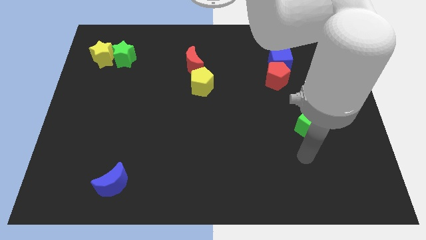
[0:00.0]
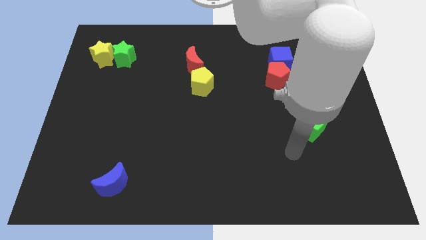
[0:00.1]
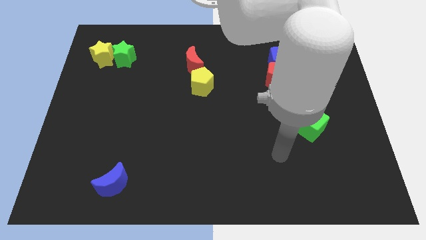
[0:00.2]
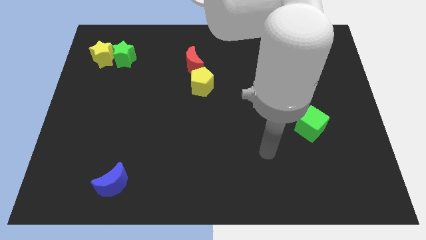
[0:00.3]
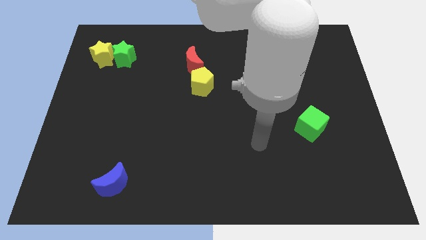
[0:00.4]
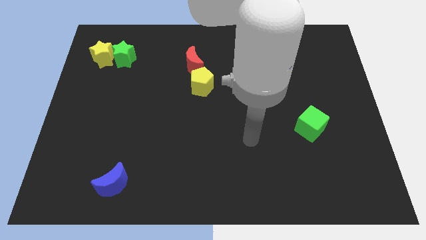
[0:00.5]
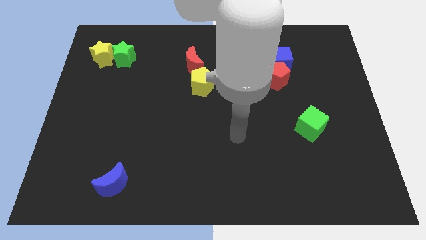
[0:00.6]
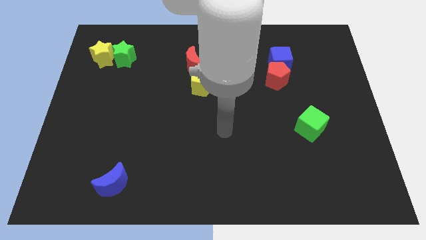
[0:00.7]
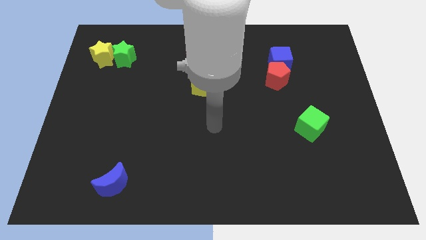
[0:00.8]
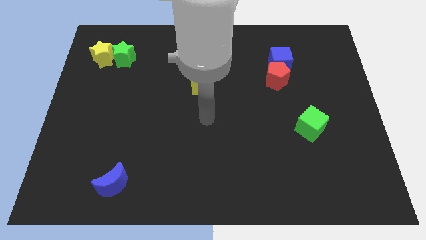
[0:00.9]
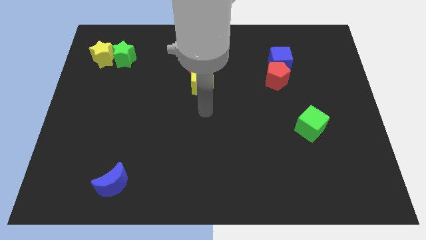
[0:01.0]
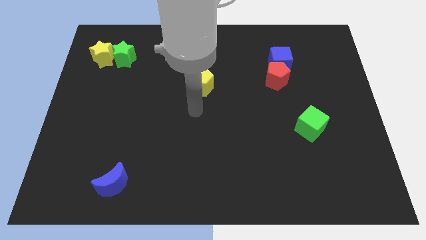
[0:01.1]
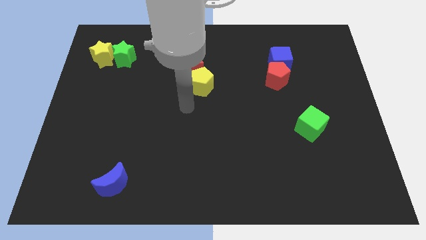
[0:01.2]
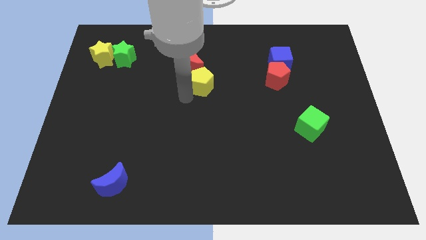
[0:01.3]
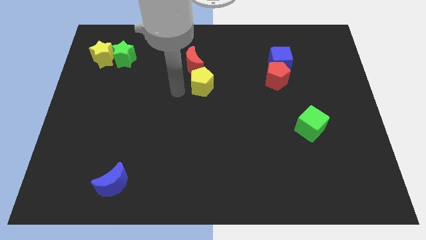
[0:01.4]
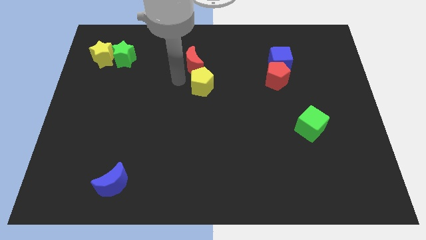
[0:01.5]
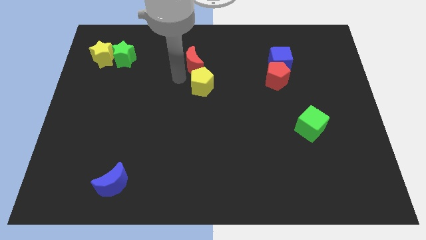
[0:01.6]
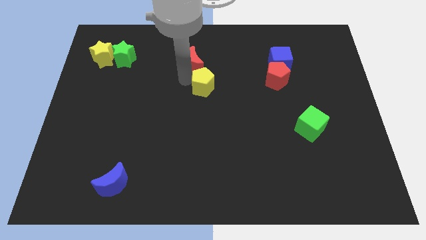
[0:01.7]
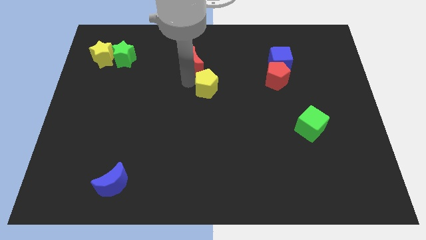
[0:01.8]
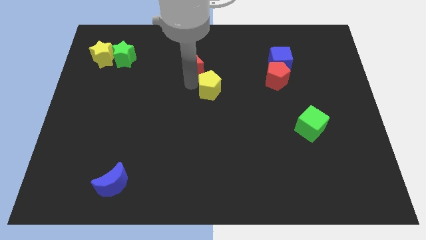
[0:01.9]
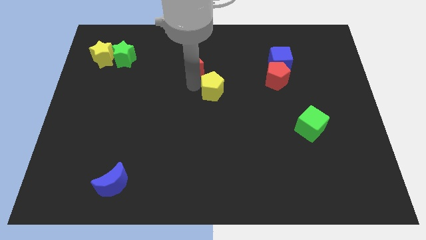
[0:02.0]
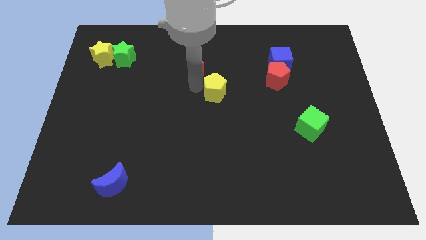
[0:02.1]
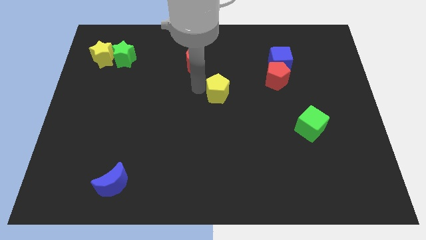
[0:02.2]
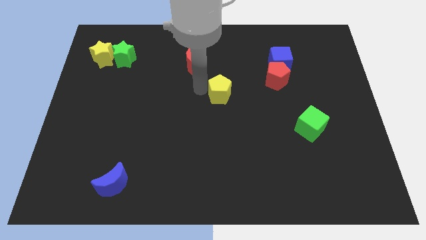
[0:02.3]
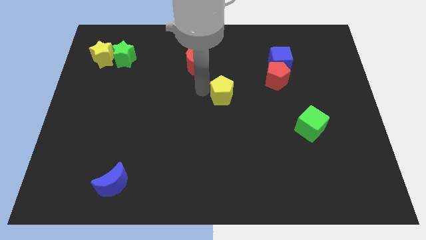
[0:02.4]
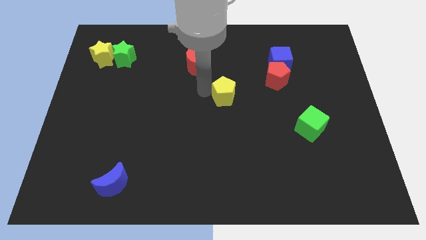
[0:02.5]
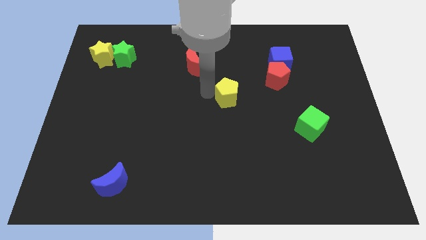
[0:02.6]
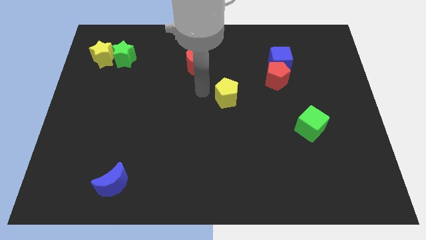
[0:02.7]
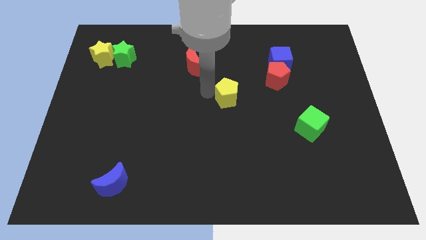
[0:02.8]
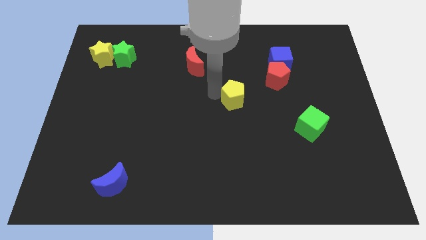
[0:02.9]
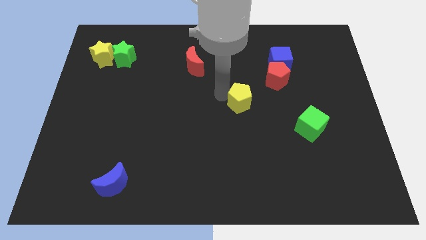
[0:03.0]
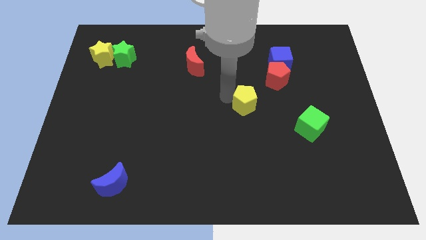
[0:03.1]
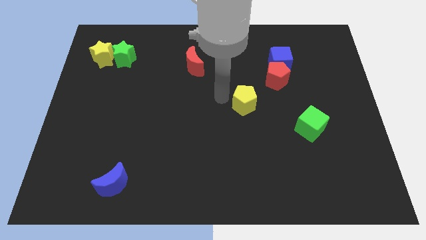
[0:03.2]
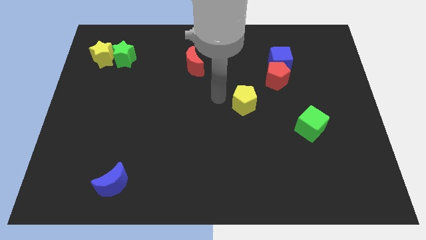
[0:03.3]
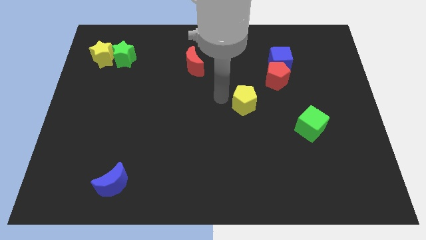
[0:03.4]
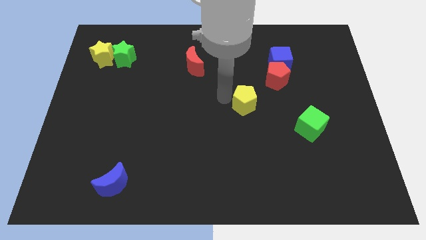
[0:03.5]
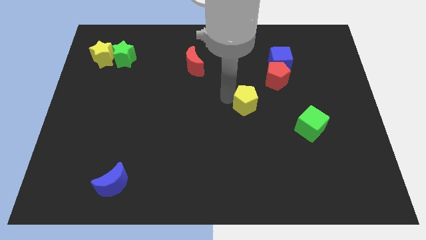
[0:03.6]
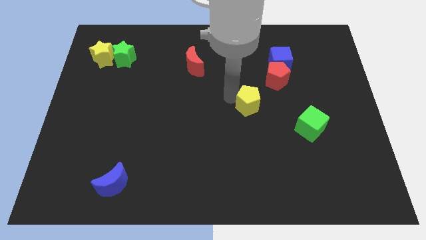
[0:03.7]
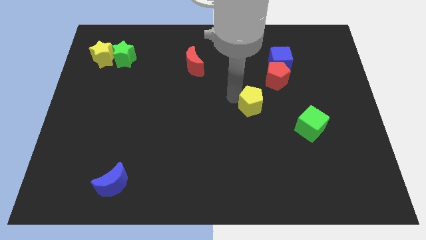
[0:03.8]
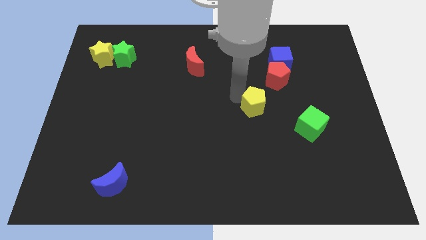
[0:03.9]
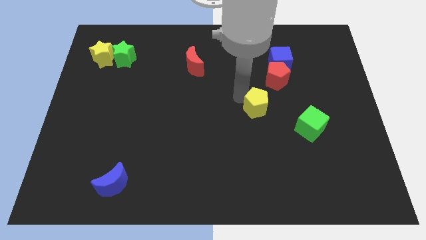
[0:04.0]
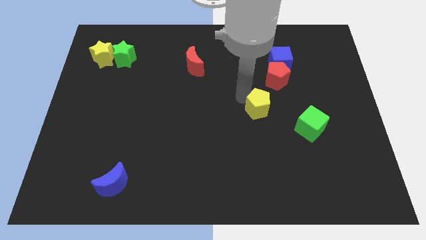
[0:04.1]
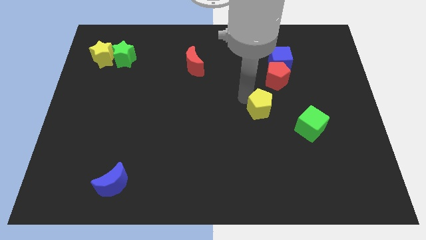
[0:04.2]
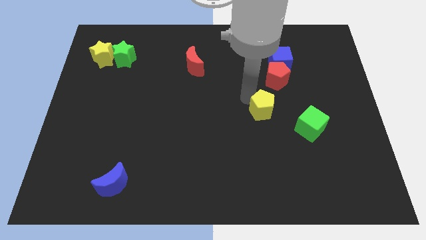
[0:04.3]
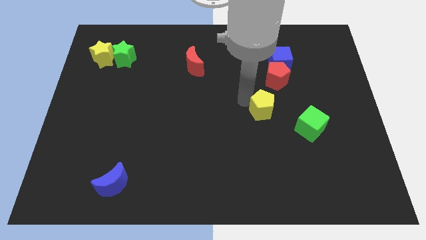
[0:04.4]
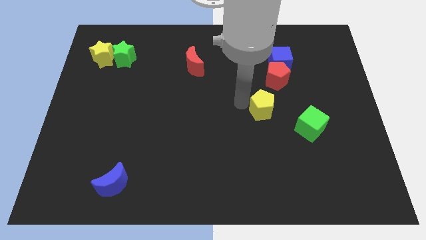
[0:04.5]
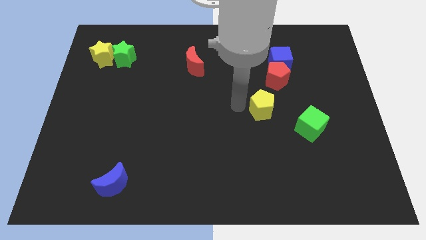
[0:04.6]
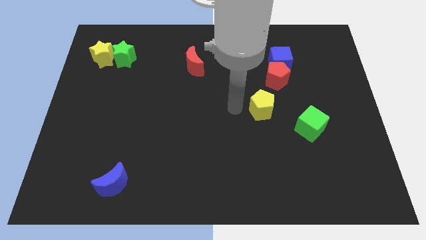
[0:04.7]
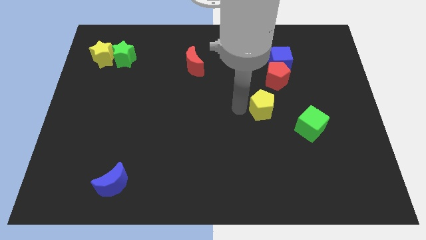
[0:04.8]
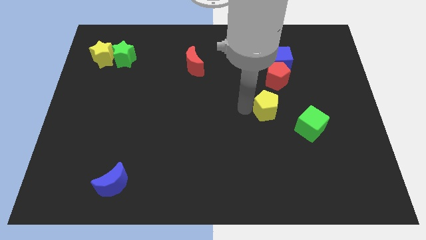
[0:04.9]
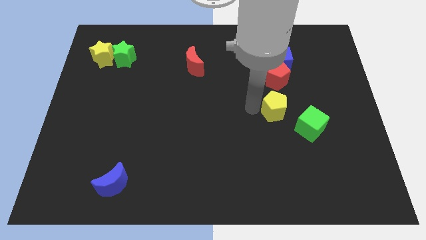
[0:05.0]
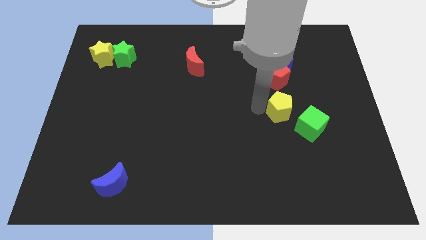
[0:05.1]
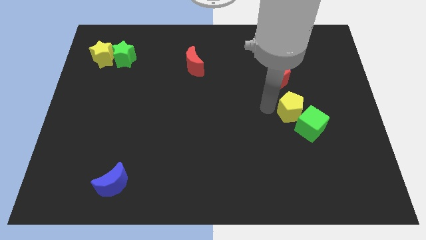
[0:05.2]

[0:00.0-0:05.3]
slide the yellow pentagon to the green cube

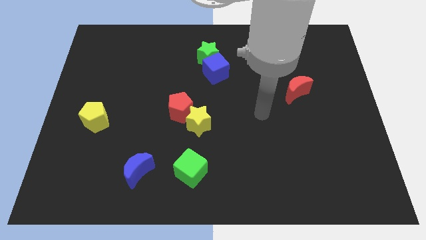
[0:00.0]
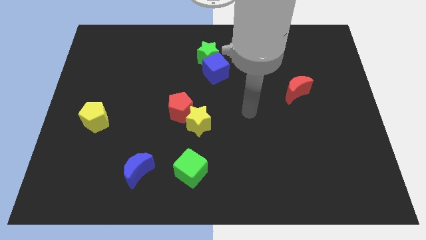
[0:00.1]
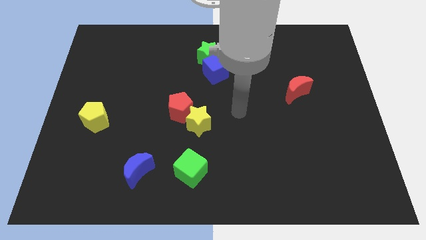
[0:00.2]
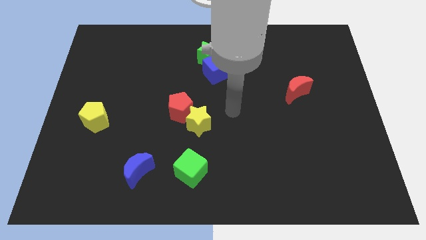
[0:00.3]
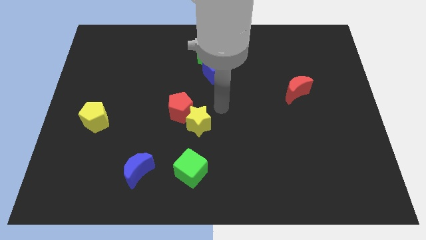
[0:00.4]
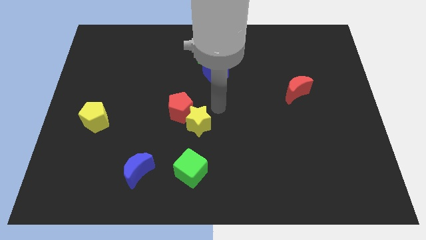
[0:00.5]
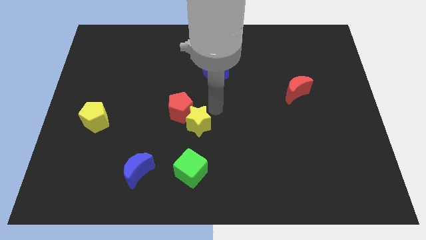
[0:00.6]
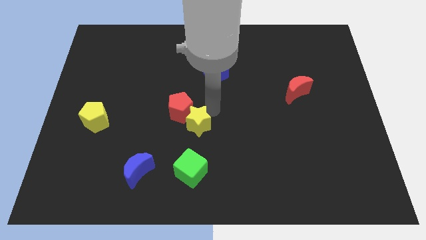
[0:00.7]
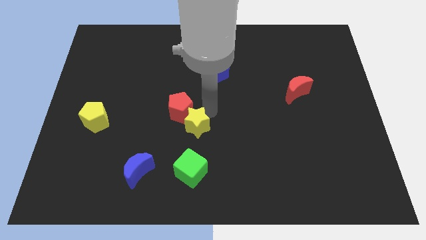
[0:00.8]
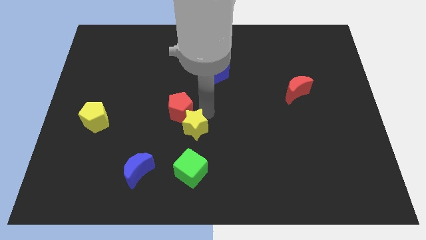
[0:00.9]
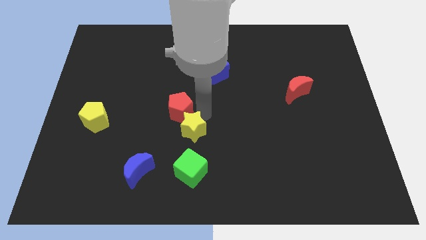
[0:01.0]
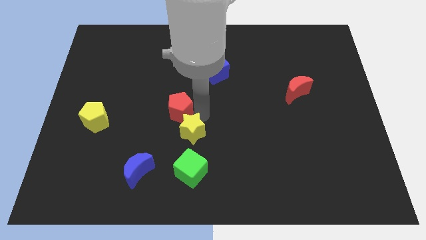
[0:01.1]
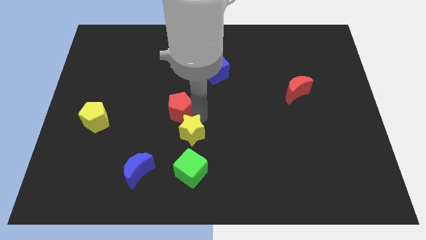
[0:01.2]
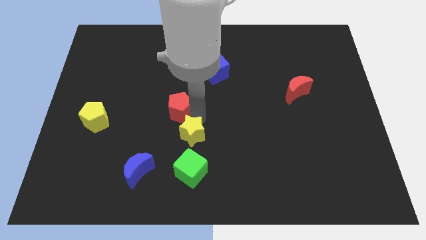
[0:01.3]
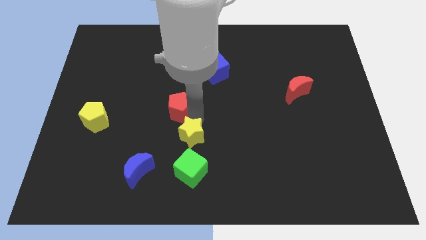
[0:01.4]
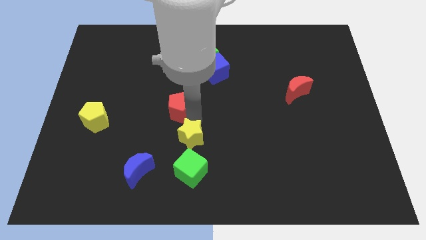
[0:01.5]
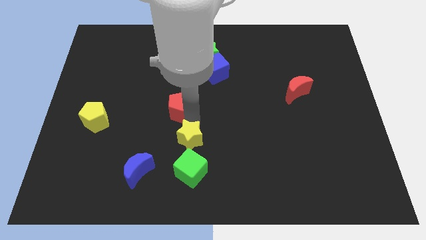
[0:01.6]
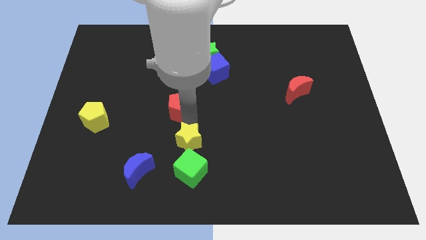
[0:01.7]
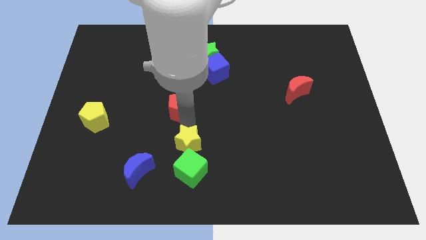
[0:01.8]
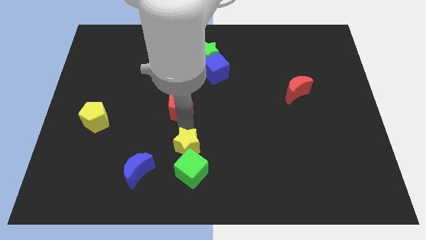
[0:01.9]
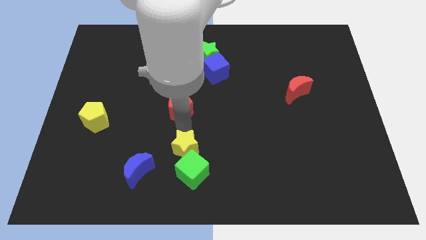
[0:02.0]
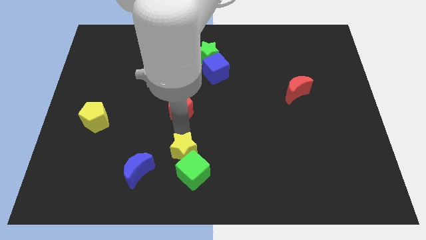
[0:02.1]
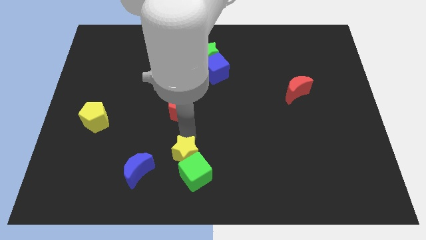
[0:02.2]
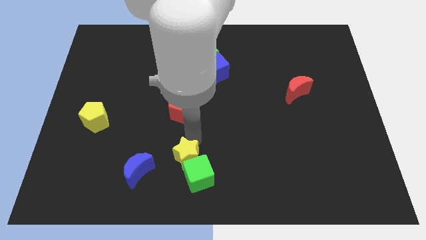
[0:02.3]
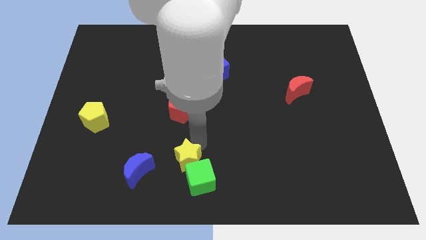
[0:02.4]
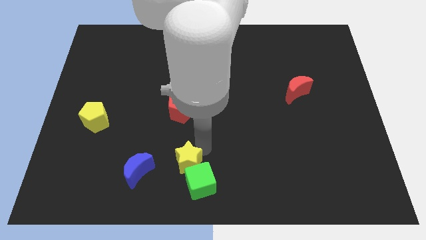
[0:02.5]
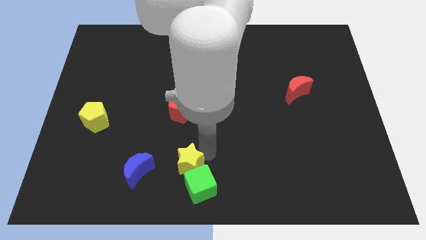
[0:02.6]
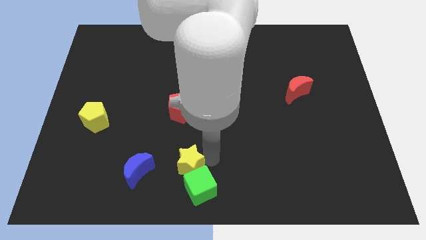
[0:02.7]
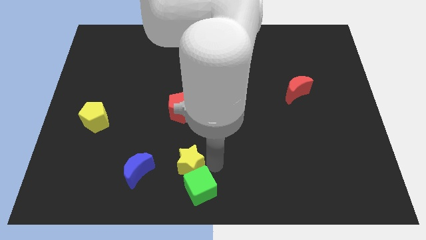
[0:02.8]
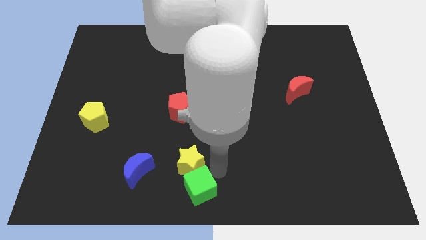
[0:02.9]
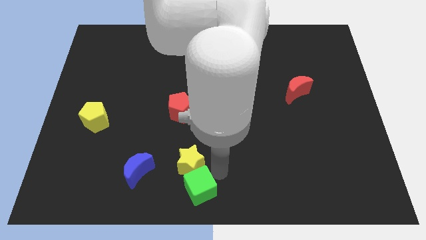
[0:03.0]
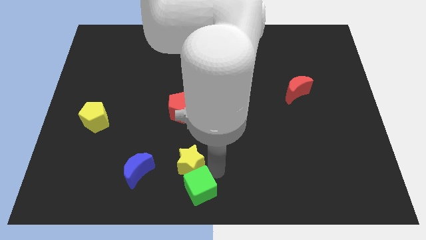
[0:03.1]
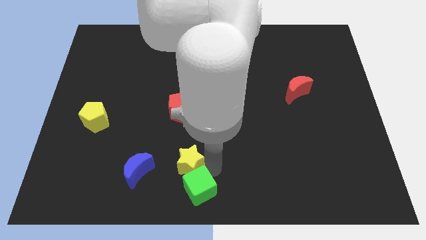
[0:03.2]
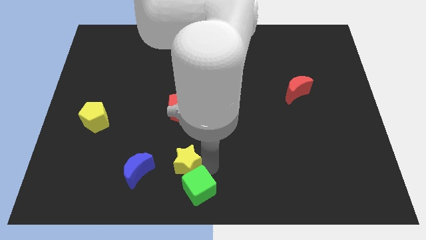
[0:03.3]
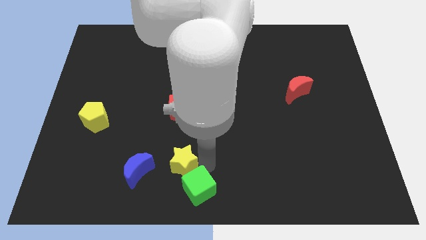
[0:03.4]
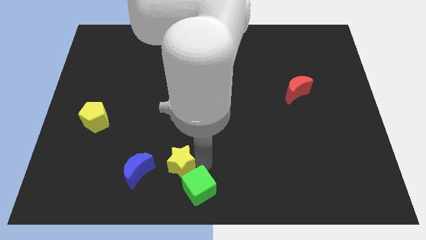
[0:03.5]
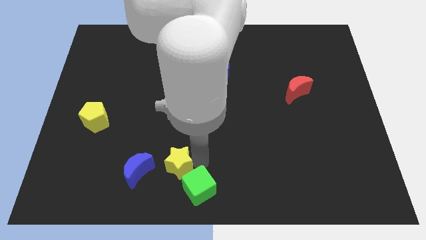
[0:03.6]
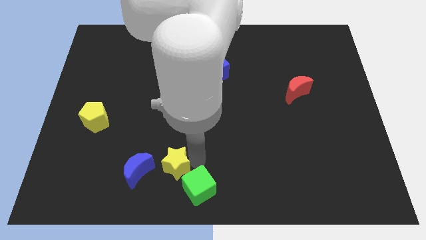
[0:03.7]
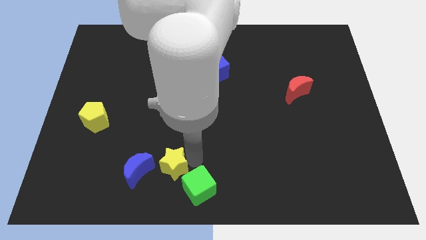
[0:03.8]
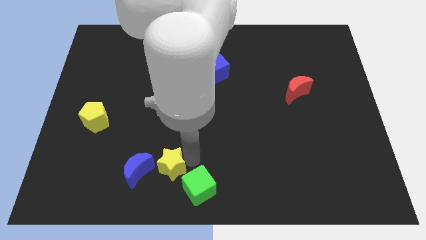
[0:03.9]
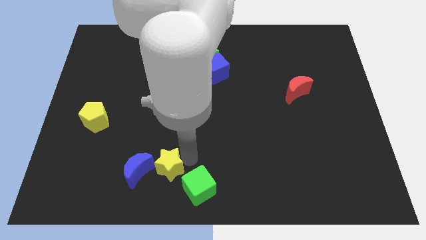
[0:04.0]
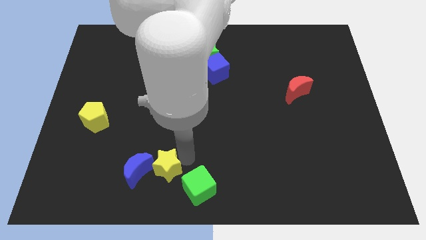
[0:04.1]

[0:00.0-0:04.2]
move the yellow star close to the blue moon
